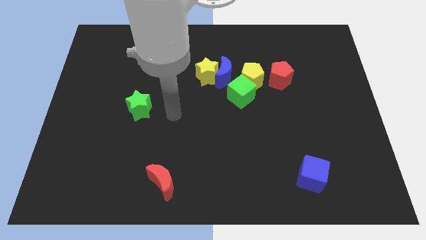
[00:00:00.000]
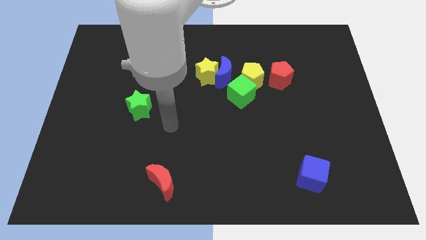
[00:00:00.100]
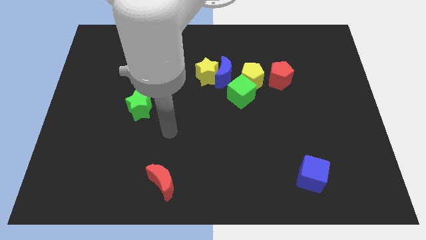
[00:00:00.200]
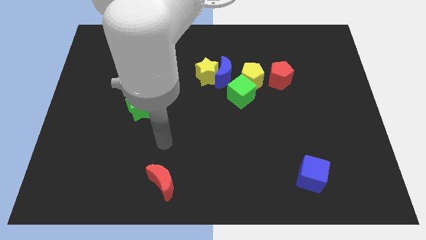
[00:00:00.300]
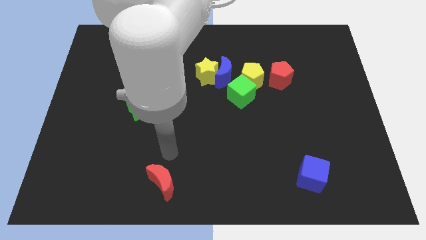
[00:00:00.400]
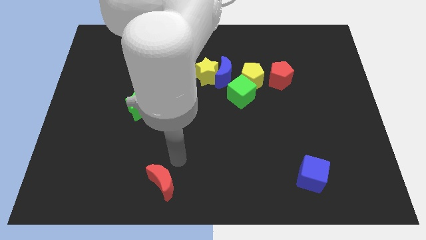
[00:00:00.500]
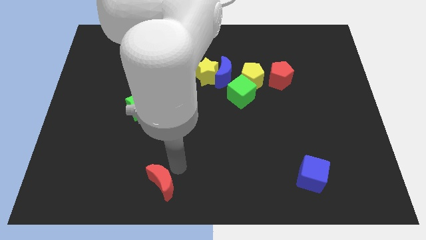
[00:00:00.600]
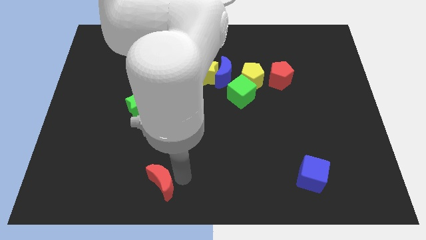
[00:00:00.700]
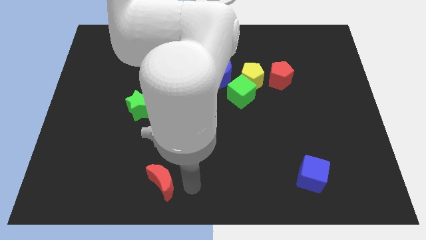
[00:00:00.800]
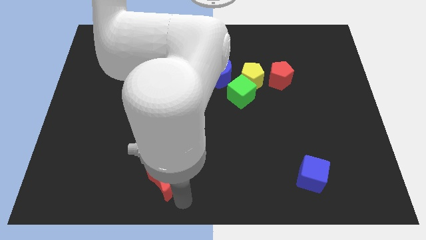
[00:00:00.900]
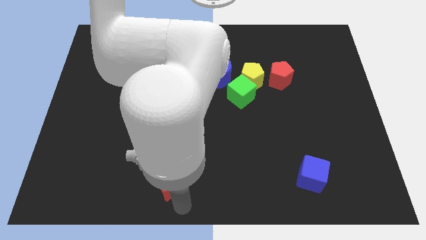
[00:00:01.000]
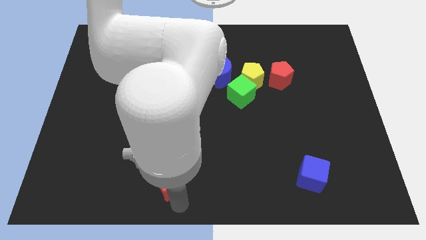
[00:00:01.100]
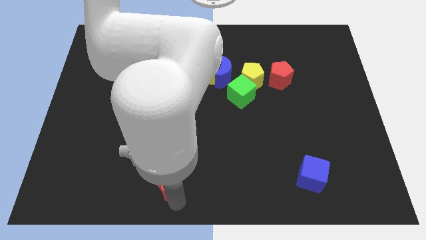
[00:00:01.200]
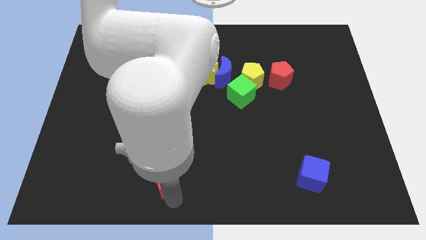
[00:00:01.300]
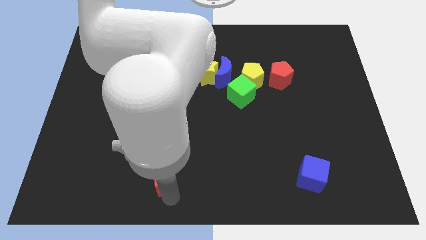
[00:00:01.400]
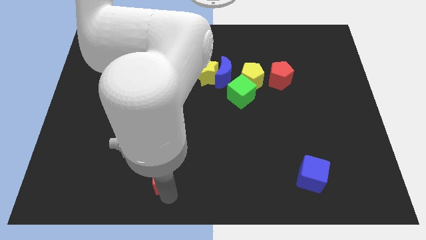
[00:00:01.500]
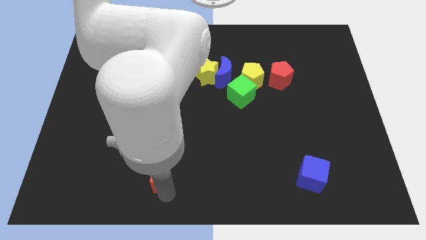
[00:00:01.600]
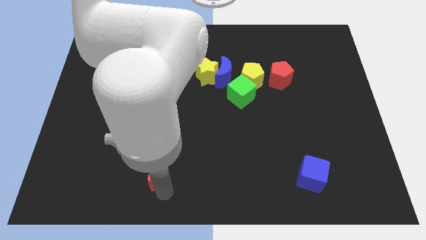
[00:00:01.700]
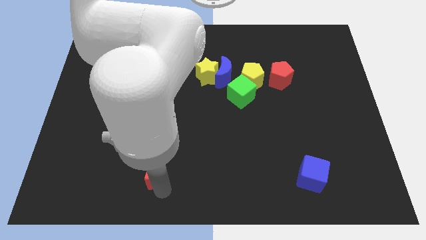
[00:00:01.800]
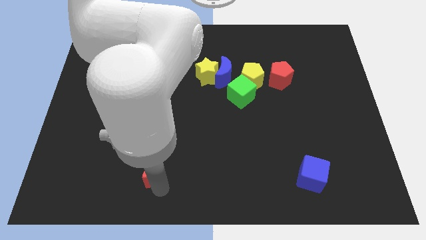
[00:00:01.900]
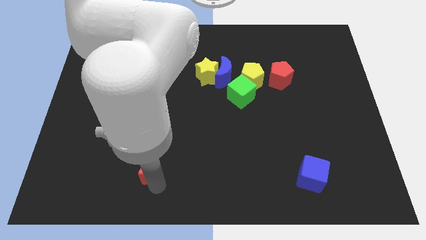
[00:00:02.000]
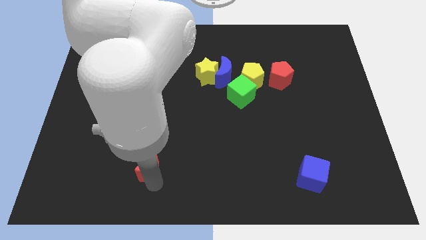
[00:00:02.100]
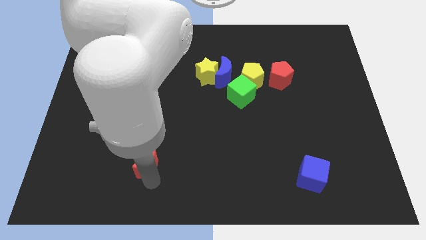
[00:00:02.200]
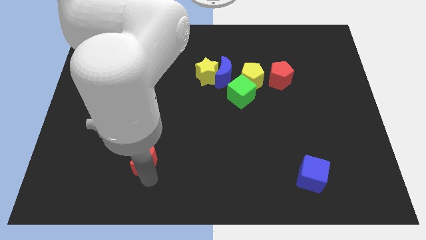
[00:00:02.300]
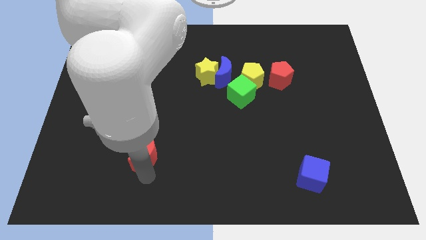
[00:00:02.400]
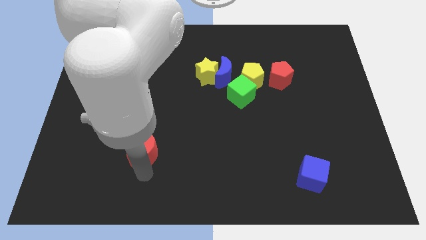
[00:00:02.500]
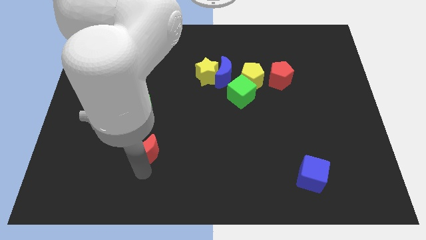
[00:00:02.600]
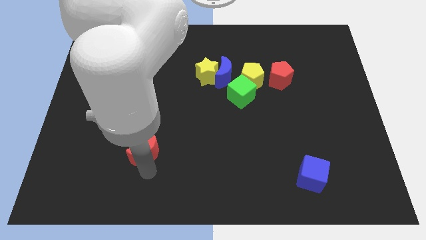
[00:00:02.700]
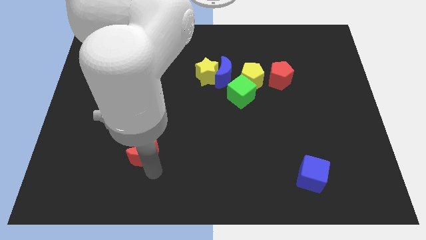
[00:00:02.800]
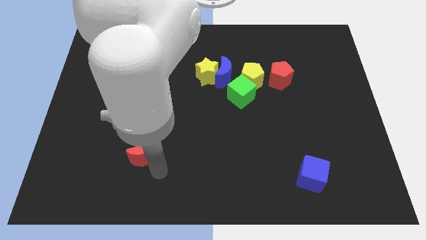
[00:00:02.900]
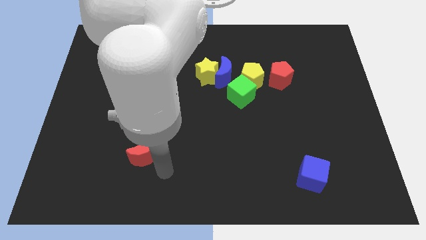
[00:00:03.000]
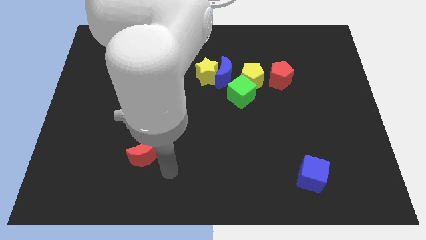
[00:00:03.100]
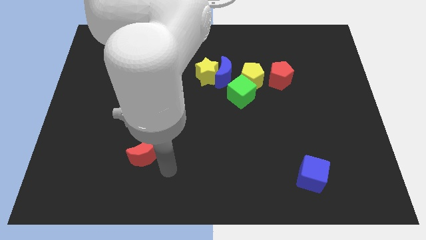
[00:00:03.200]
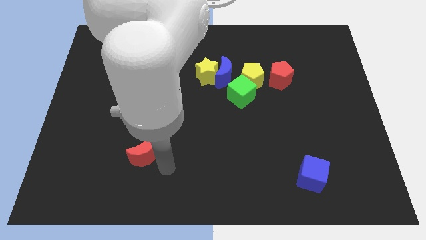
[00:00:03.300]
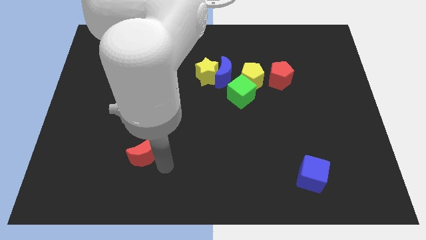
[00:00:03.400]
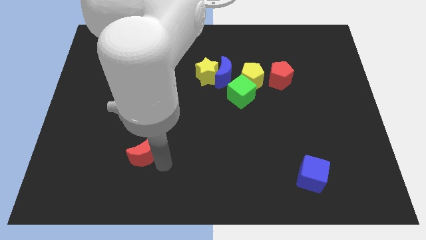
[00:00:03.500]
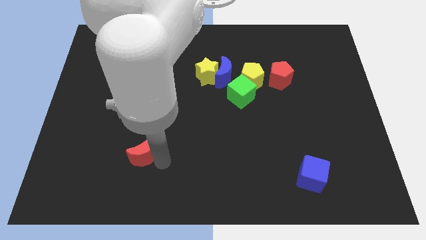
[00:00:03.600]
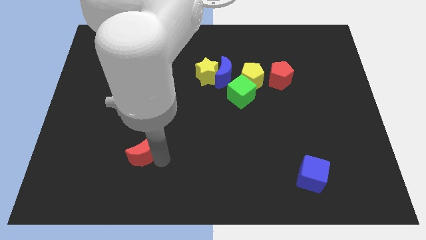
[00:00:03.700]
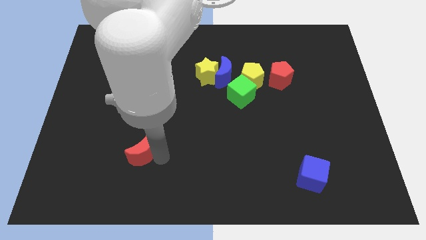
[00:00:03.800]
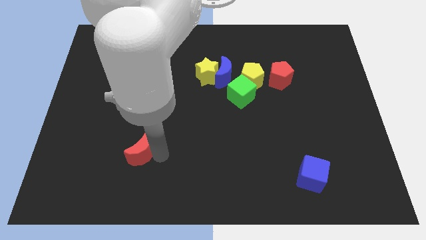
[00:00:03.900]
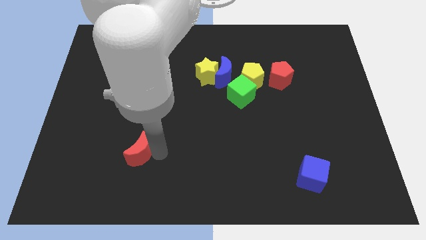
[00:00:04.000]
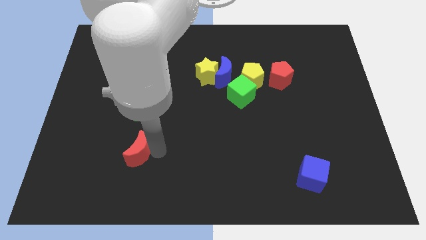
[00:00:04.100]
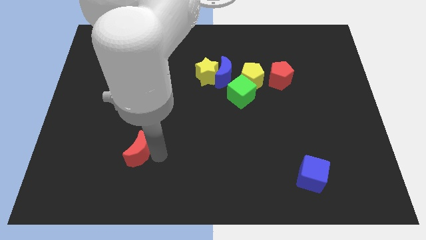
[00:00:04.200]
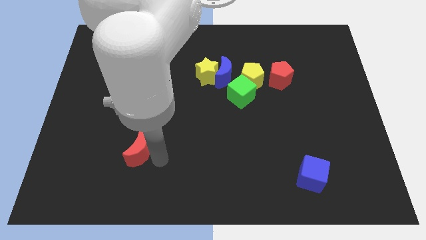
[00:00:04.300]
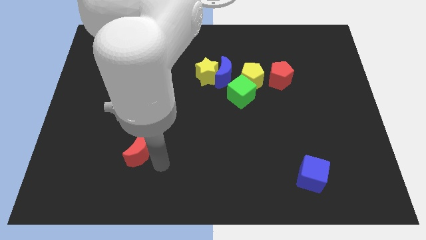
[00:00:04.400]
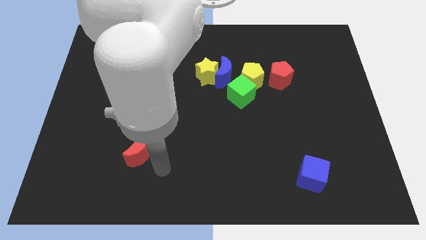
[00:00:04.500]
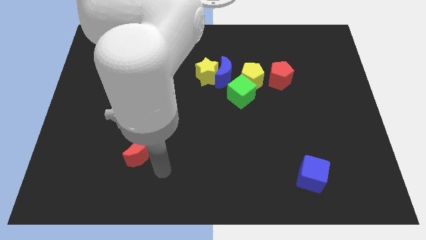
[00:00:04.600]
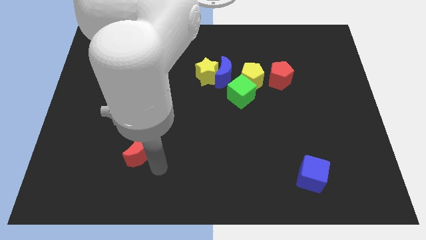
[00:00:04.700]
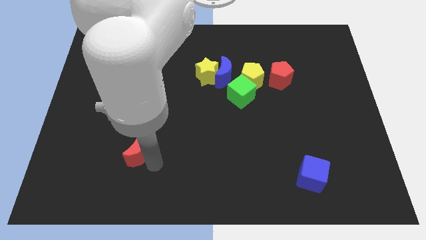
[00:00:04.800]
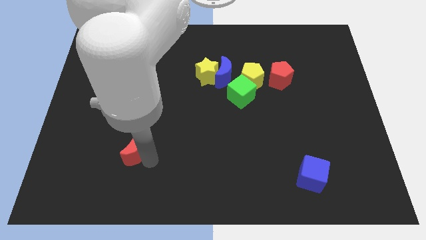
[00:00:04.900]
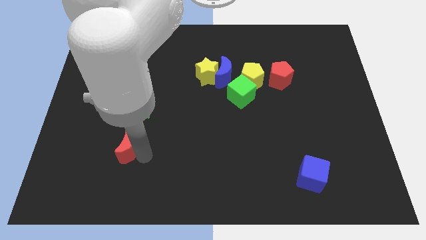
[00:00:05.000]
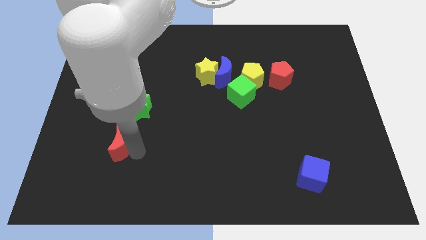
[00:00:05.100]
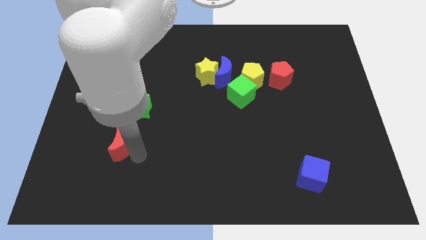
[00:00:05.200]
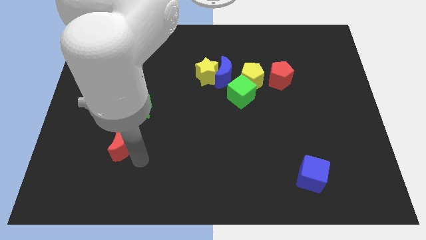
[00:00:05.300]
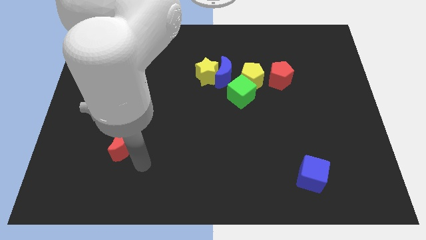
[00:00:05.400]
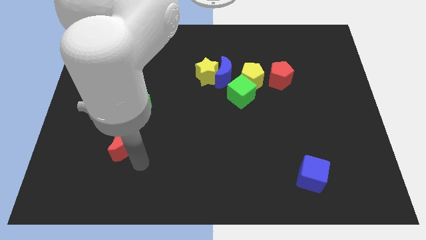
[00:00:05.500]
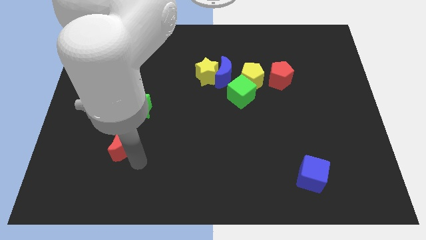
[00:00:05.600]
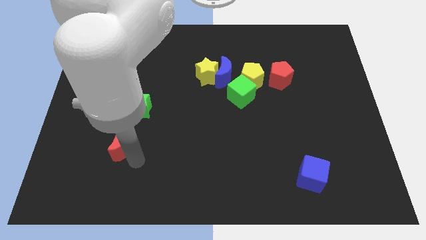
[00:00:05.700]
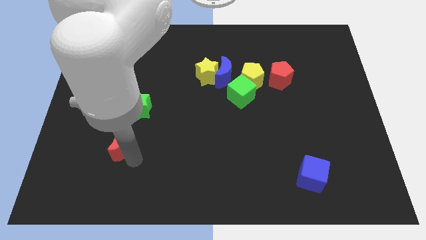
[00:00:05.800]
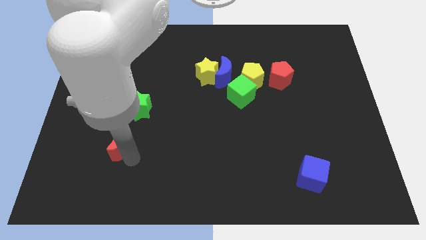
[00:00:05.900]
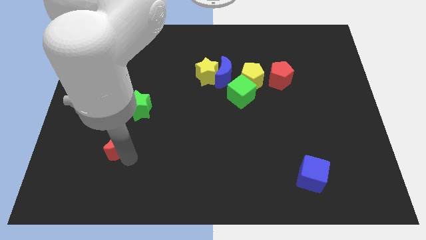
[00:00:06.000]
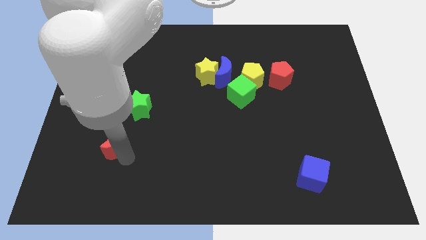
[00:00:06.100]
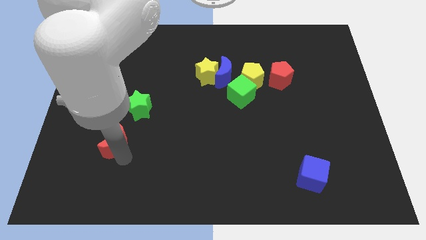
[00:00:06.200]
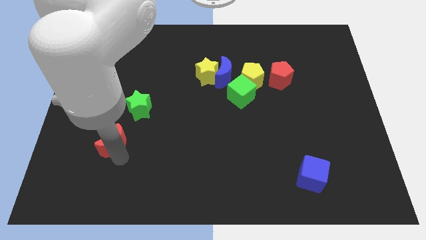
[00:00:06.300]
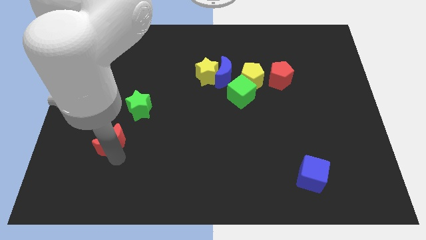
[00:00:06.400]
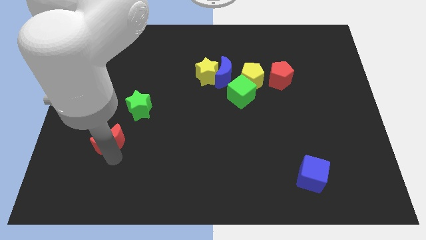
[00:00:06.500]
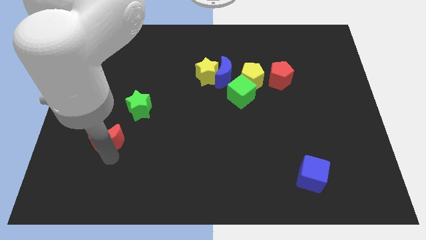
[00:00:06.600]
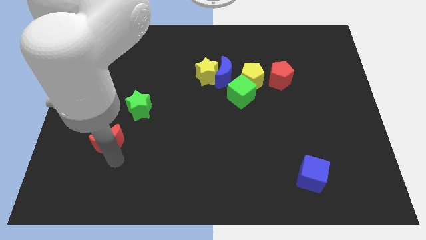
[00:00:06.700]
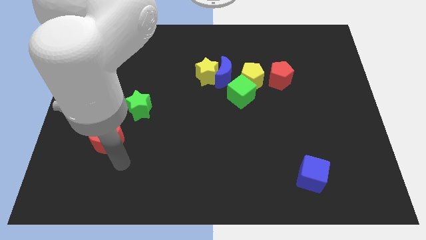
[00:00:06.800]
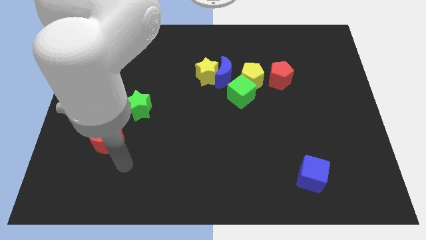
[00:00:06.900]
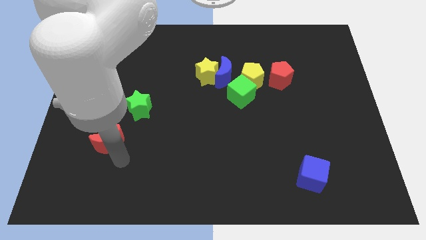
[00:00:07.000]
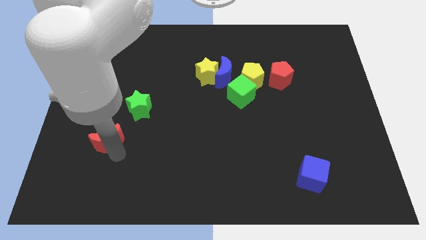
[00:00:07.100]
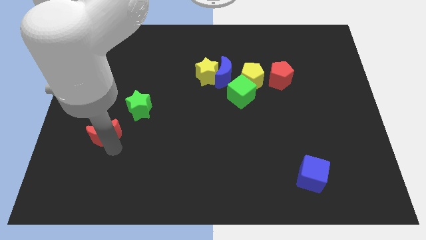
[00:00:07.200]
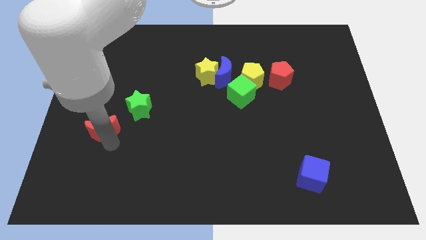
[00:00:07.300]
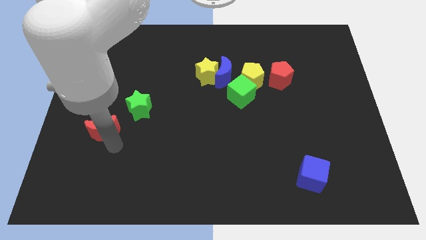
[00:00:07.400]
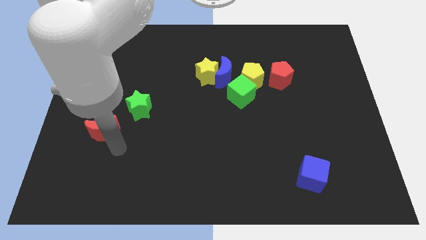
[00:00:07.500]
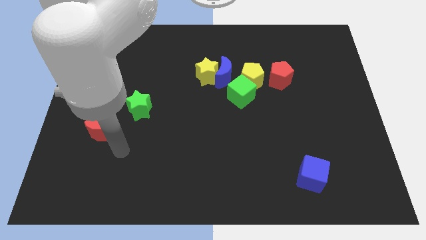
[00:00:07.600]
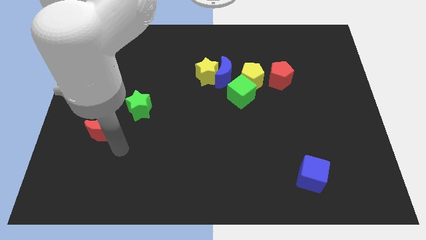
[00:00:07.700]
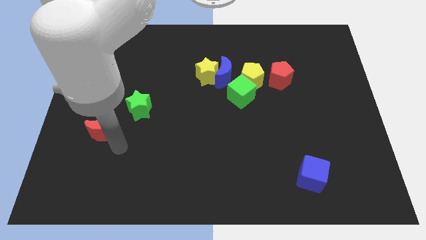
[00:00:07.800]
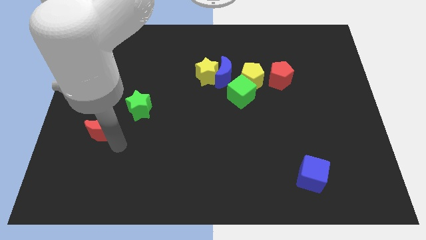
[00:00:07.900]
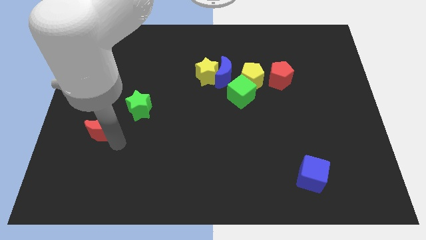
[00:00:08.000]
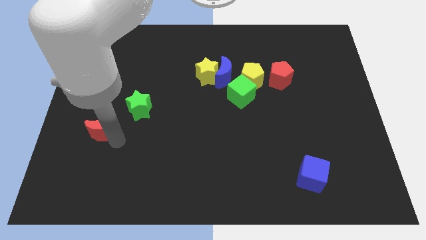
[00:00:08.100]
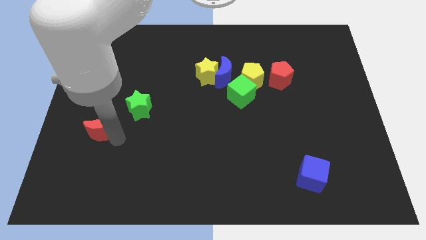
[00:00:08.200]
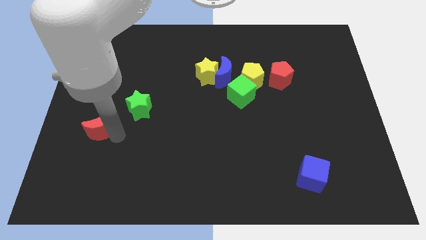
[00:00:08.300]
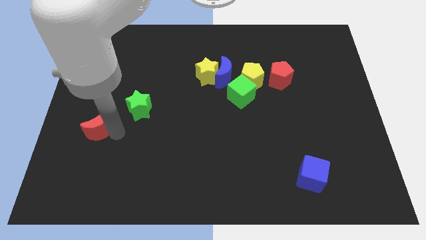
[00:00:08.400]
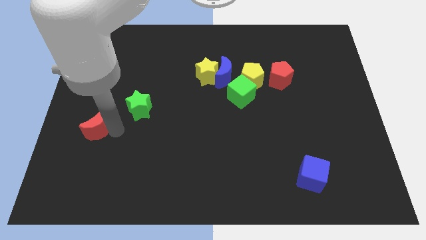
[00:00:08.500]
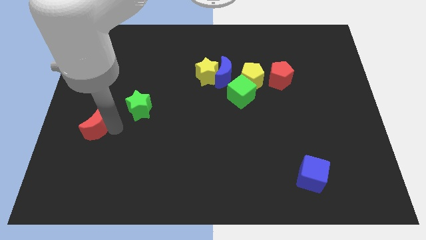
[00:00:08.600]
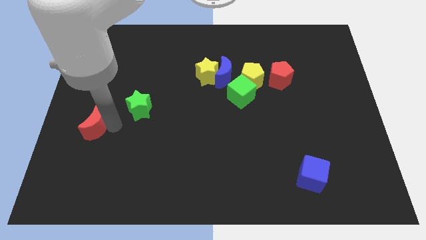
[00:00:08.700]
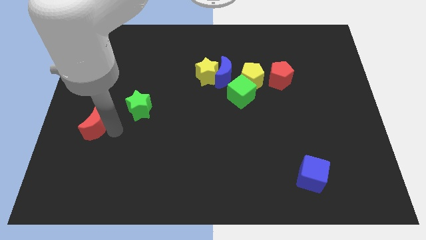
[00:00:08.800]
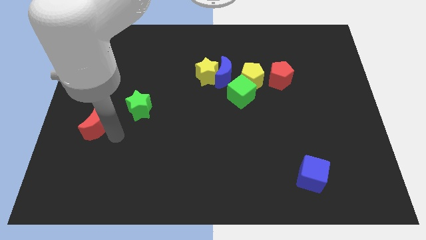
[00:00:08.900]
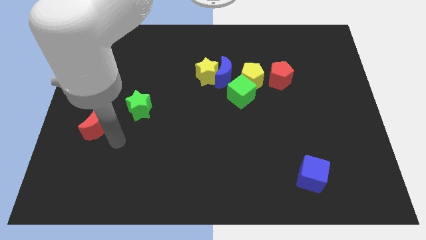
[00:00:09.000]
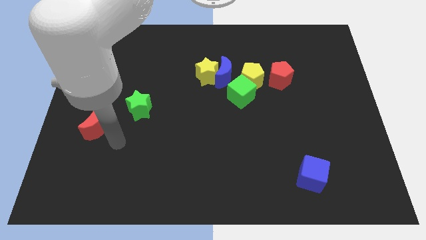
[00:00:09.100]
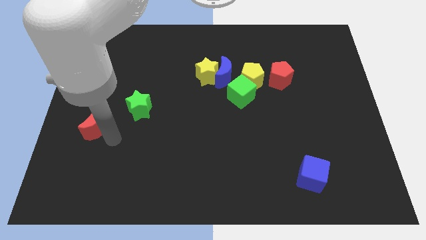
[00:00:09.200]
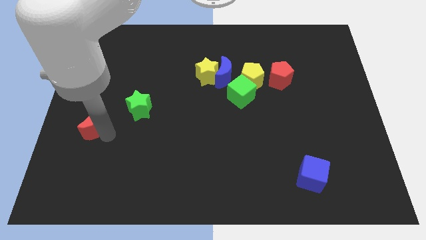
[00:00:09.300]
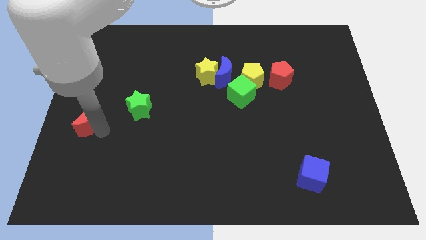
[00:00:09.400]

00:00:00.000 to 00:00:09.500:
move the red moon to the left side
